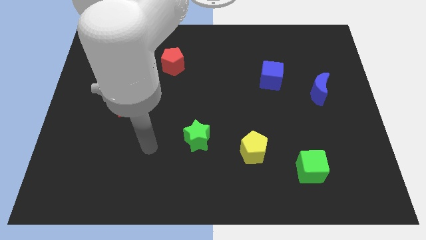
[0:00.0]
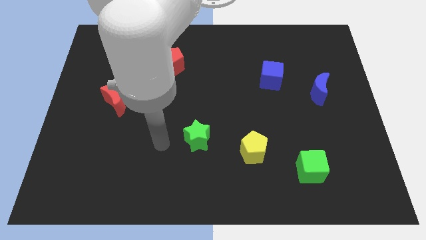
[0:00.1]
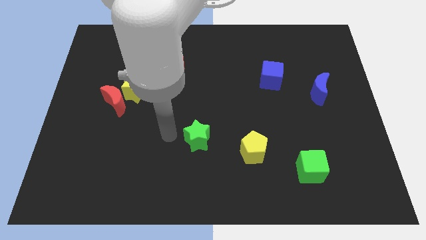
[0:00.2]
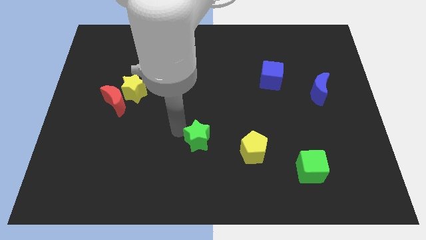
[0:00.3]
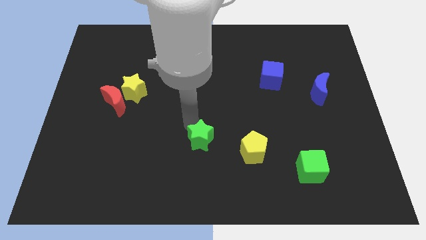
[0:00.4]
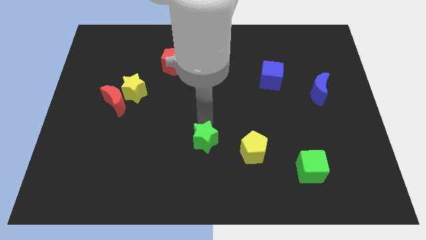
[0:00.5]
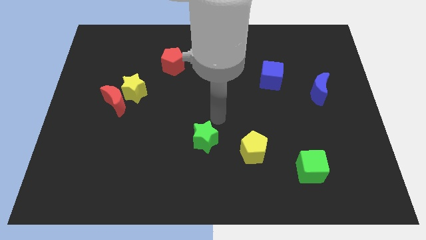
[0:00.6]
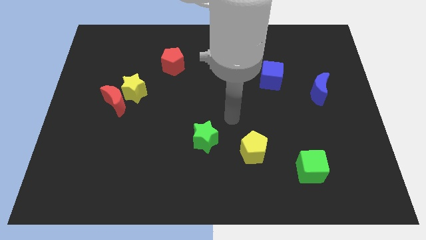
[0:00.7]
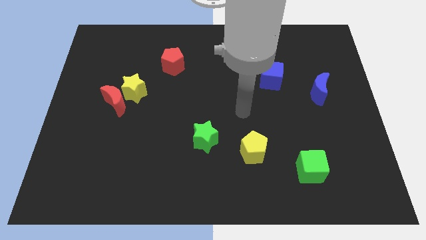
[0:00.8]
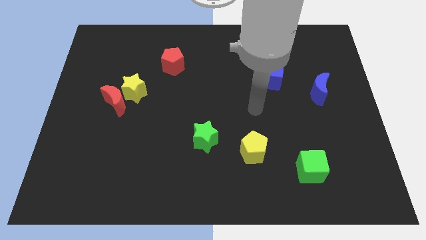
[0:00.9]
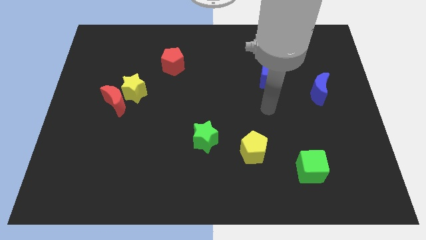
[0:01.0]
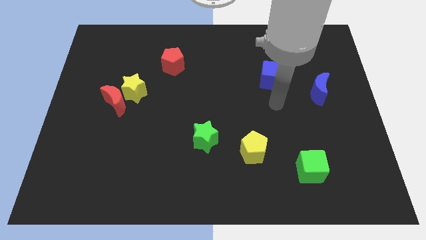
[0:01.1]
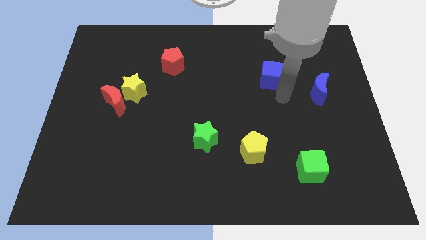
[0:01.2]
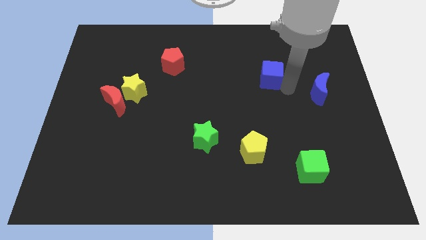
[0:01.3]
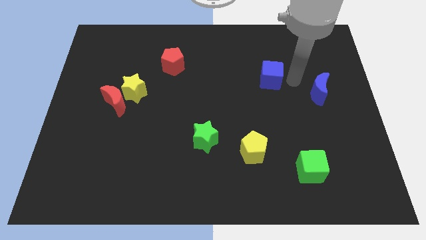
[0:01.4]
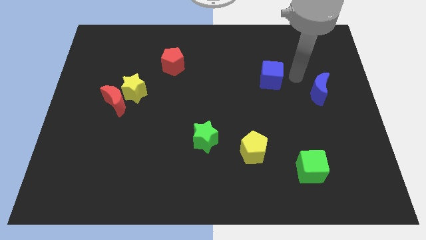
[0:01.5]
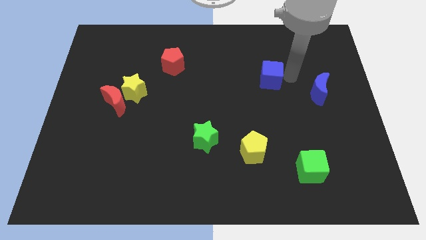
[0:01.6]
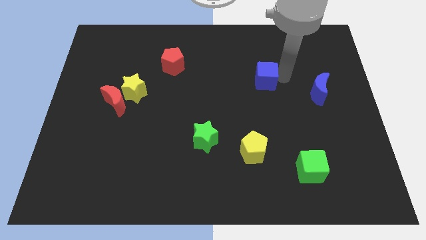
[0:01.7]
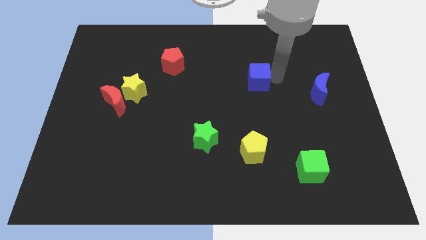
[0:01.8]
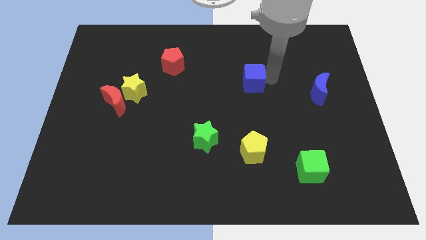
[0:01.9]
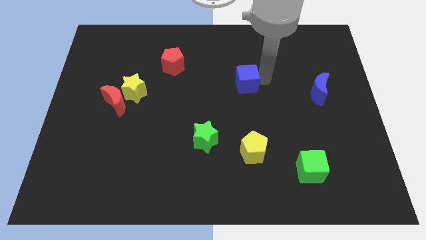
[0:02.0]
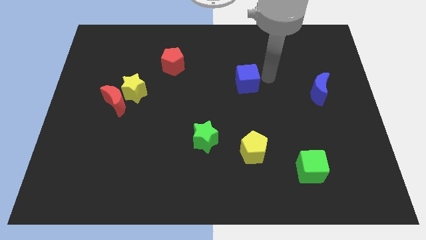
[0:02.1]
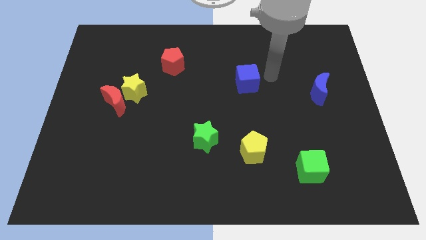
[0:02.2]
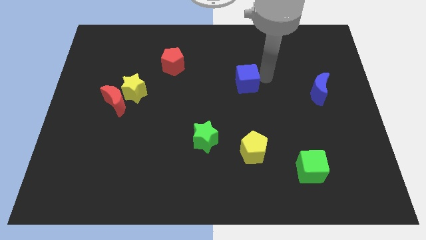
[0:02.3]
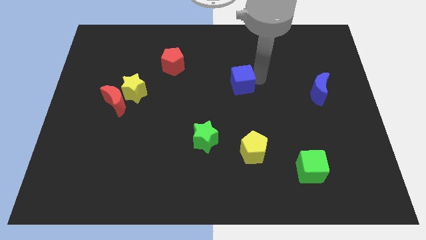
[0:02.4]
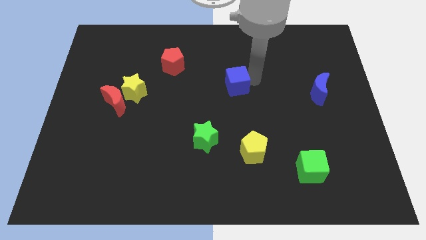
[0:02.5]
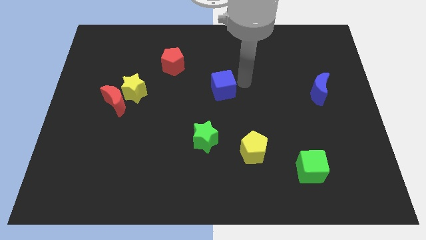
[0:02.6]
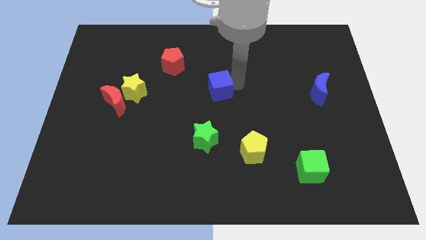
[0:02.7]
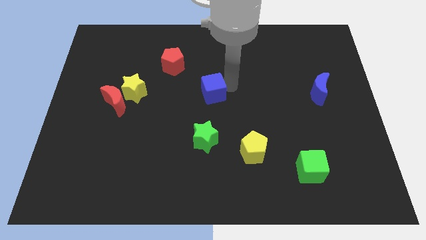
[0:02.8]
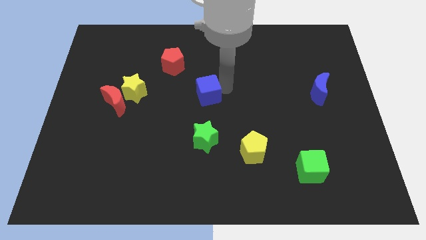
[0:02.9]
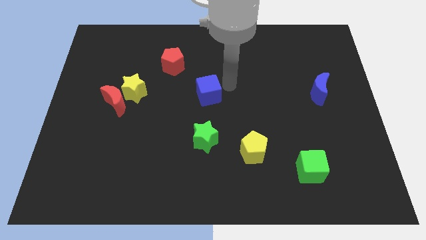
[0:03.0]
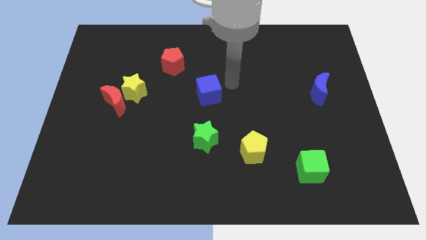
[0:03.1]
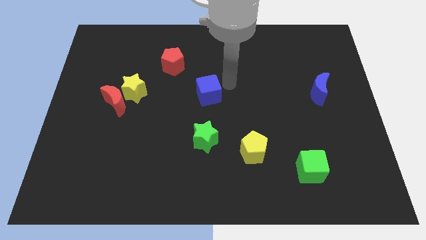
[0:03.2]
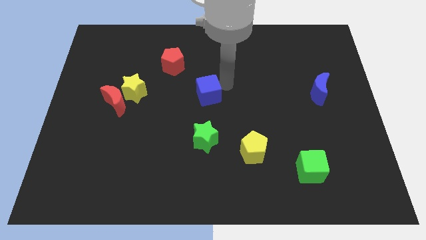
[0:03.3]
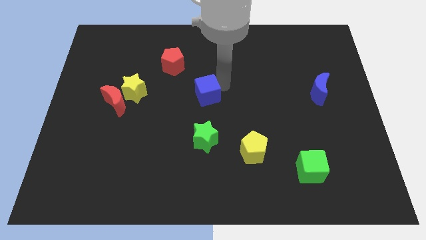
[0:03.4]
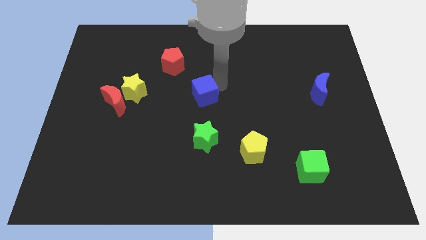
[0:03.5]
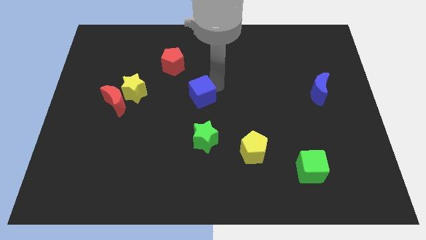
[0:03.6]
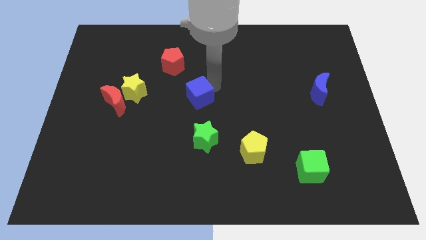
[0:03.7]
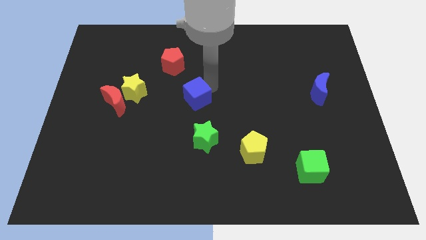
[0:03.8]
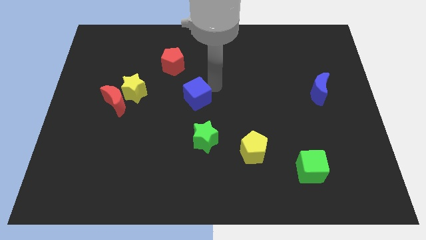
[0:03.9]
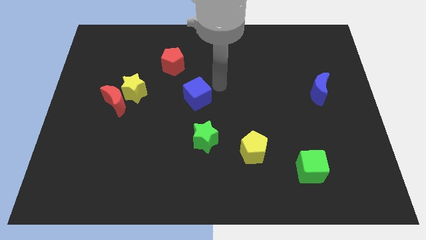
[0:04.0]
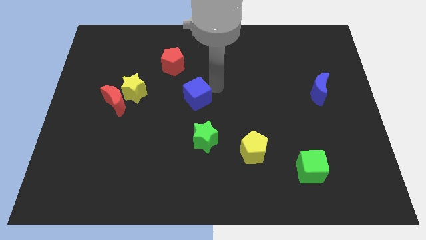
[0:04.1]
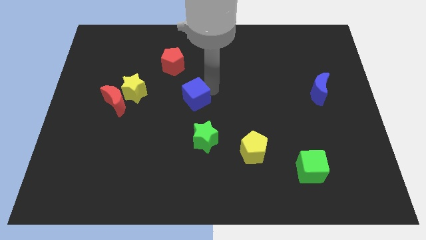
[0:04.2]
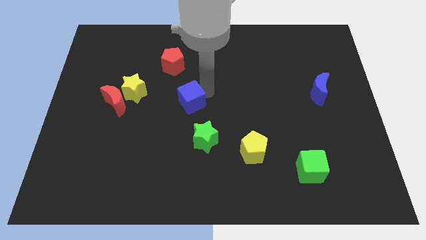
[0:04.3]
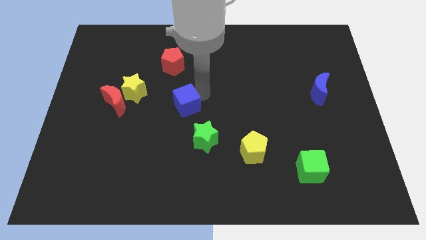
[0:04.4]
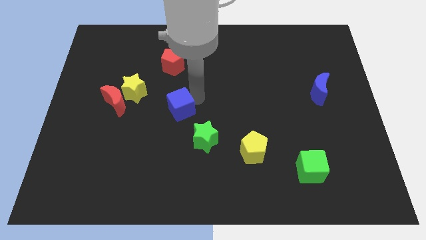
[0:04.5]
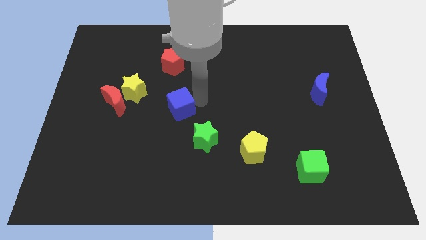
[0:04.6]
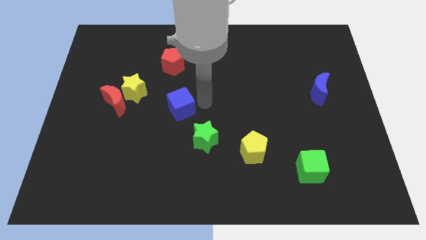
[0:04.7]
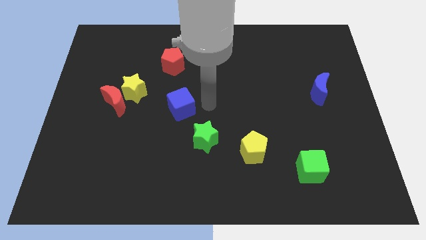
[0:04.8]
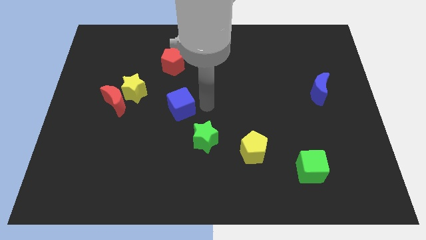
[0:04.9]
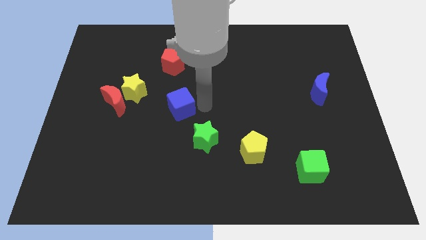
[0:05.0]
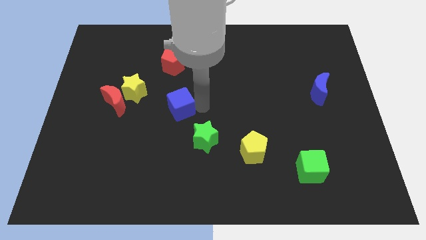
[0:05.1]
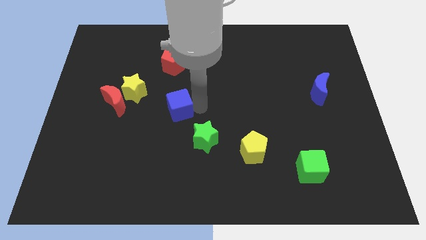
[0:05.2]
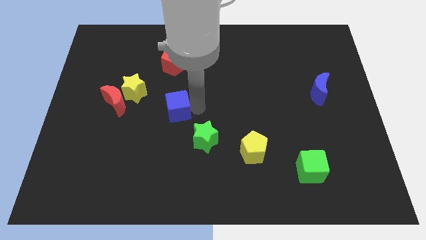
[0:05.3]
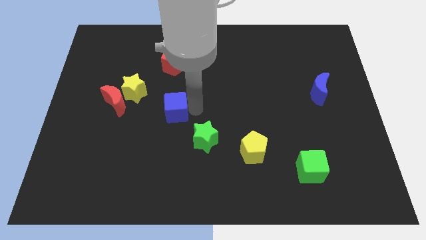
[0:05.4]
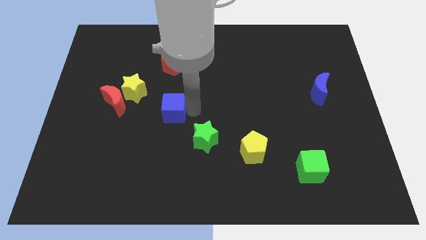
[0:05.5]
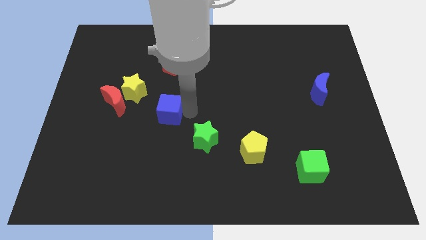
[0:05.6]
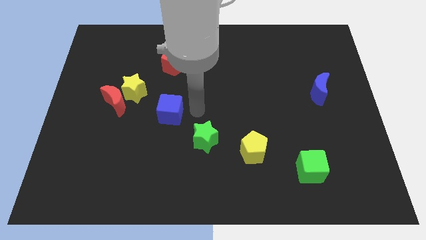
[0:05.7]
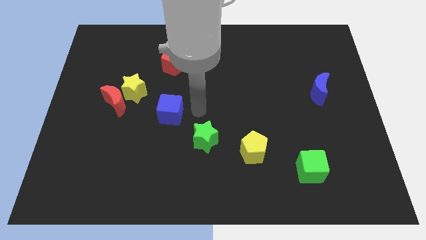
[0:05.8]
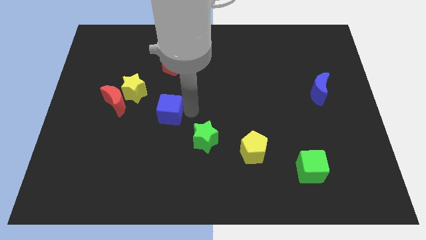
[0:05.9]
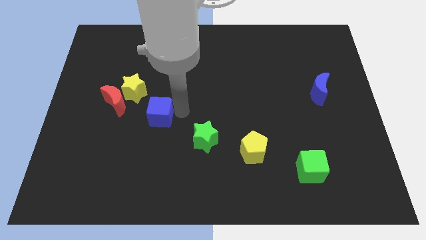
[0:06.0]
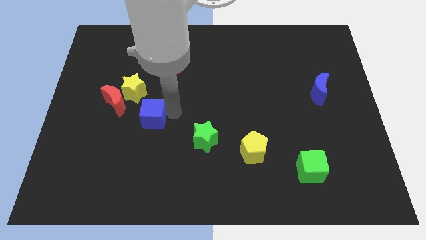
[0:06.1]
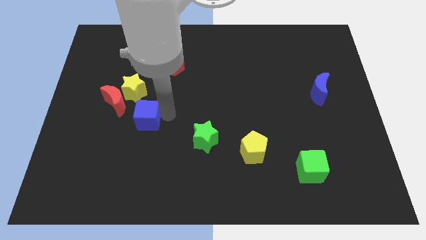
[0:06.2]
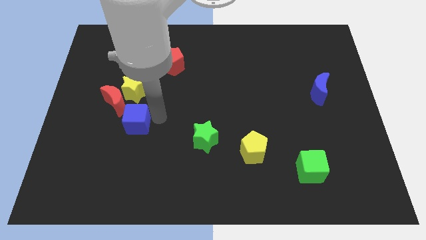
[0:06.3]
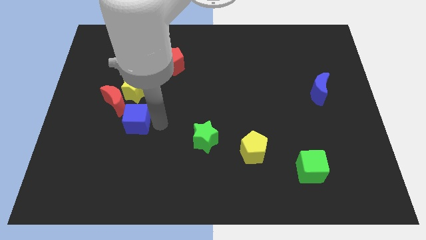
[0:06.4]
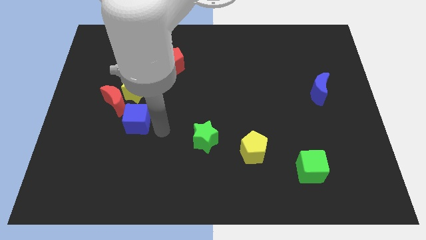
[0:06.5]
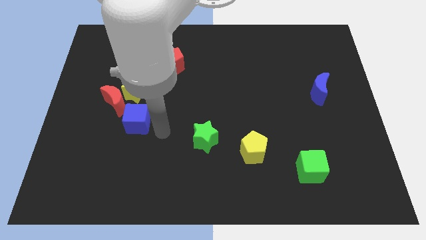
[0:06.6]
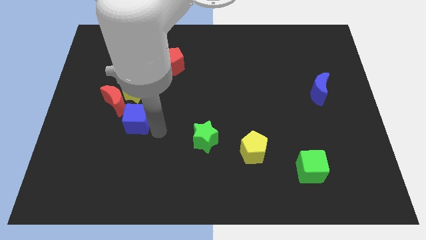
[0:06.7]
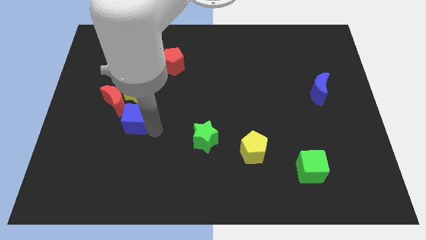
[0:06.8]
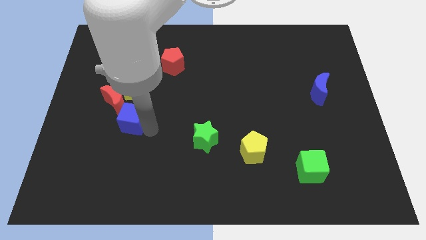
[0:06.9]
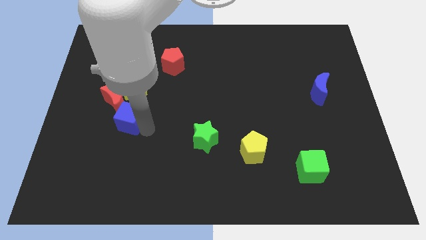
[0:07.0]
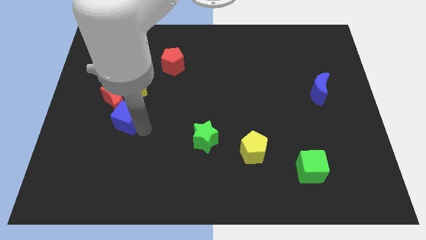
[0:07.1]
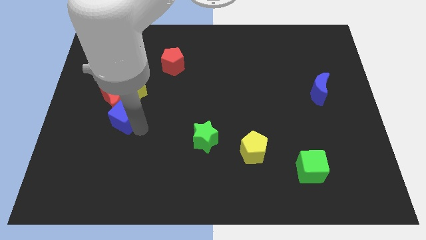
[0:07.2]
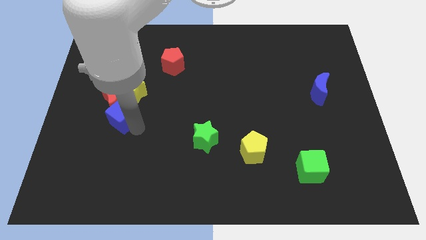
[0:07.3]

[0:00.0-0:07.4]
slide the blue cube to the bottom left of the yellow star
